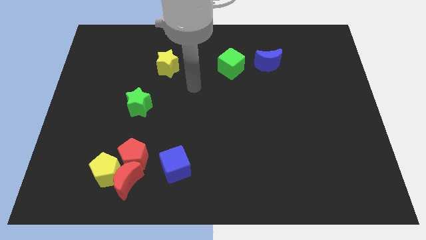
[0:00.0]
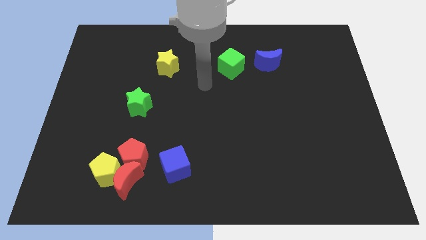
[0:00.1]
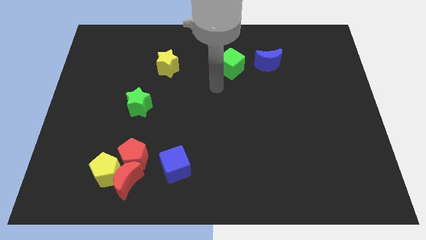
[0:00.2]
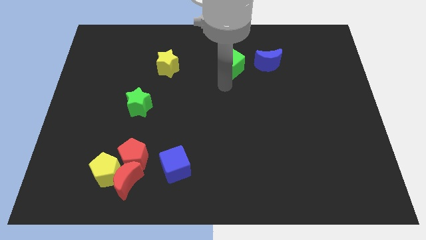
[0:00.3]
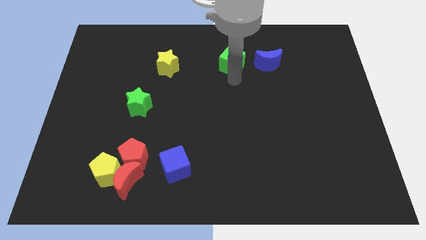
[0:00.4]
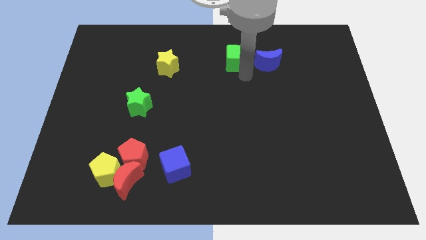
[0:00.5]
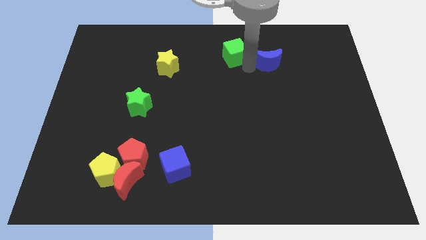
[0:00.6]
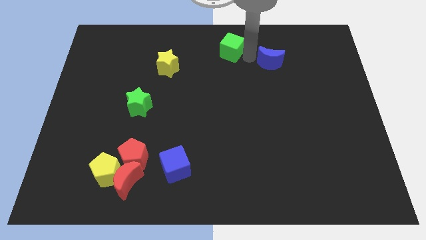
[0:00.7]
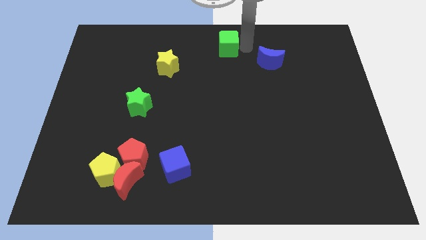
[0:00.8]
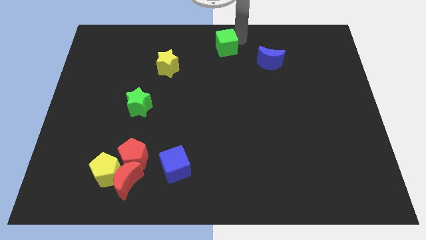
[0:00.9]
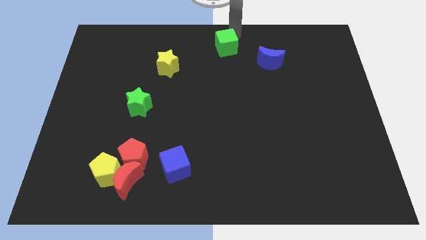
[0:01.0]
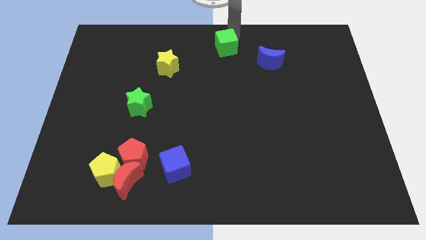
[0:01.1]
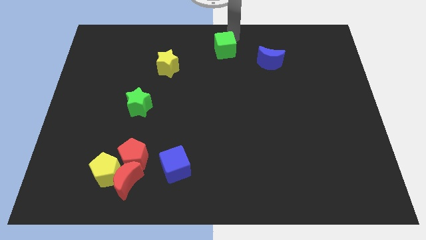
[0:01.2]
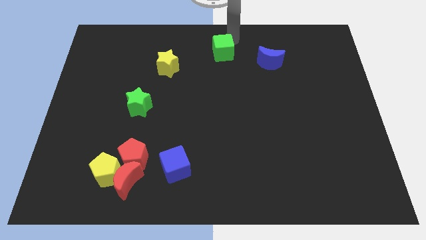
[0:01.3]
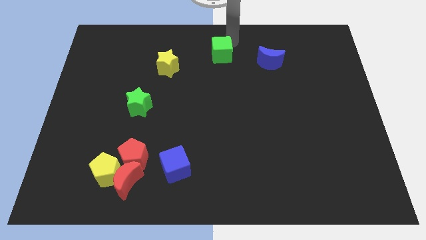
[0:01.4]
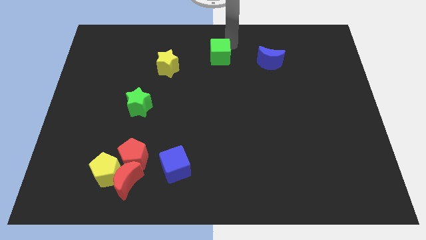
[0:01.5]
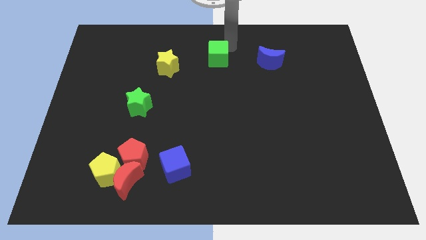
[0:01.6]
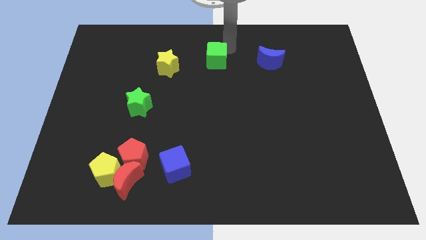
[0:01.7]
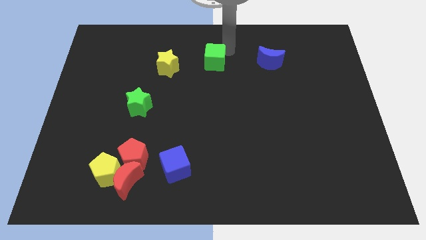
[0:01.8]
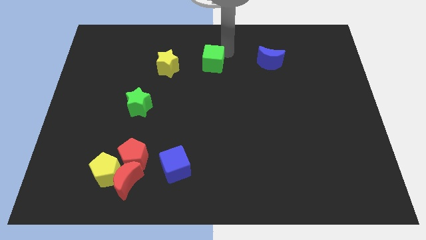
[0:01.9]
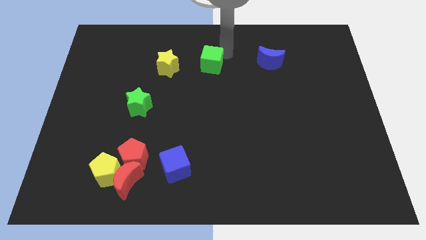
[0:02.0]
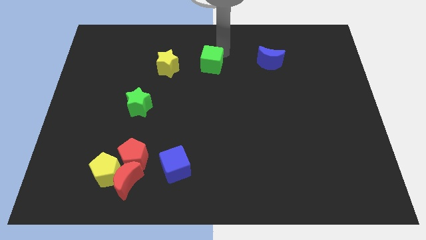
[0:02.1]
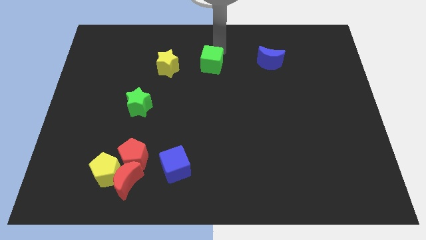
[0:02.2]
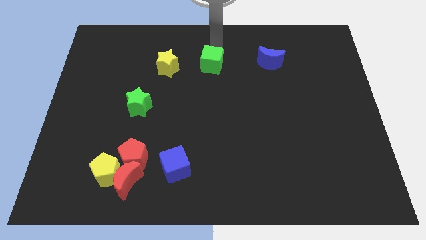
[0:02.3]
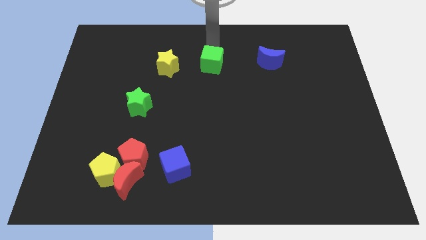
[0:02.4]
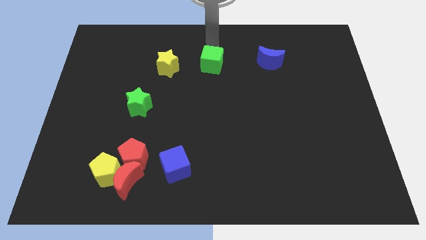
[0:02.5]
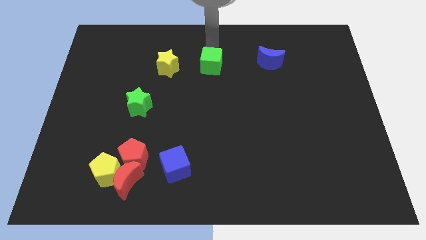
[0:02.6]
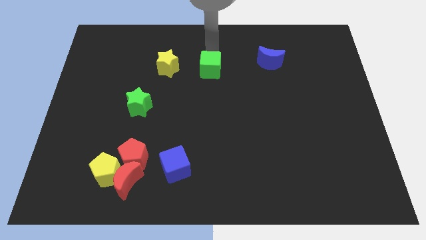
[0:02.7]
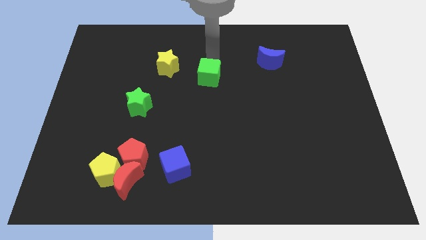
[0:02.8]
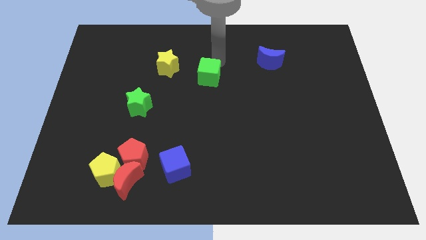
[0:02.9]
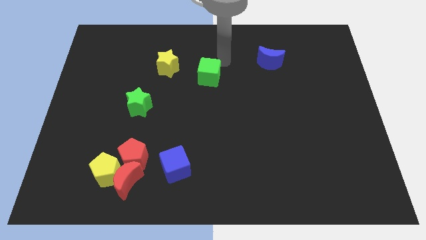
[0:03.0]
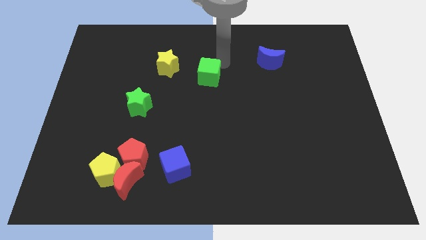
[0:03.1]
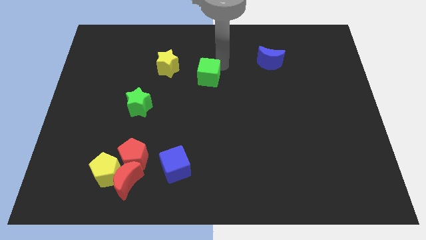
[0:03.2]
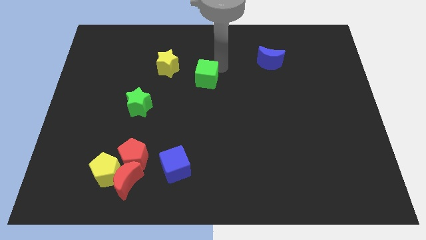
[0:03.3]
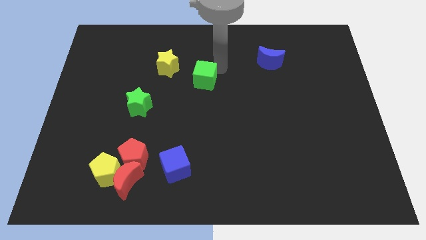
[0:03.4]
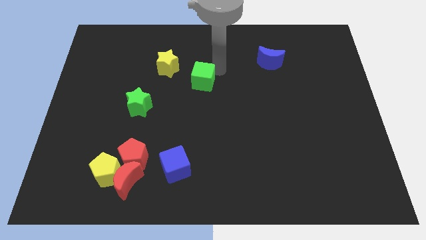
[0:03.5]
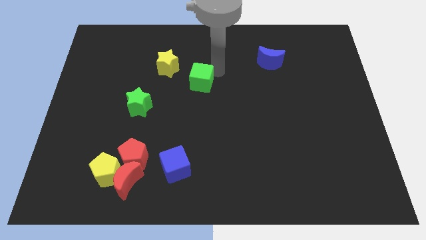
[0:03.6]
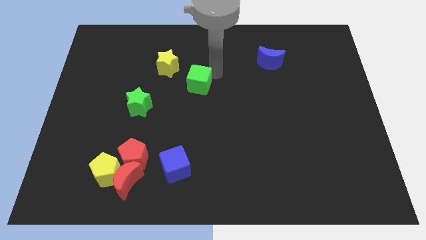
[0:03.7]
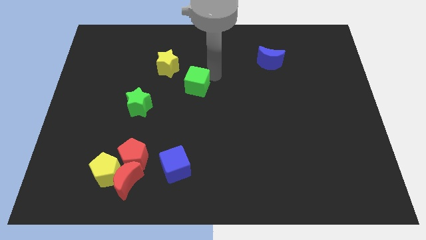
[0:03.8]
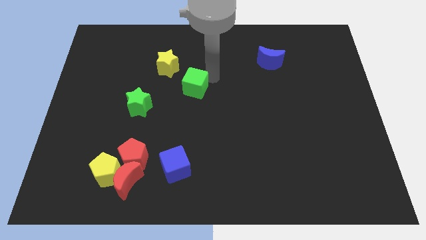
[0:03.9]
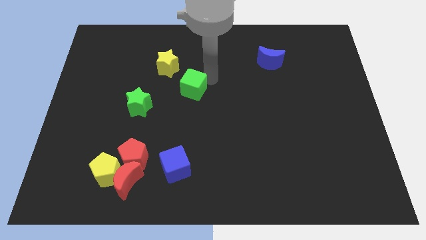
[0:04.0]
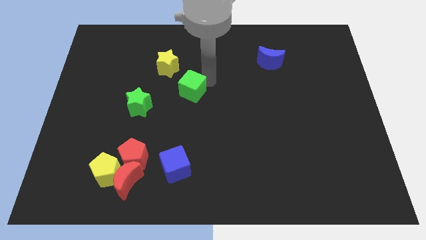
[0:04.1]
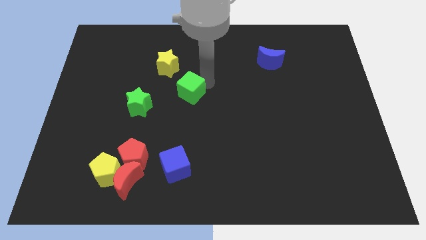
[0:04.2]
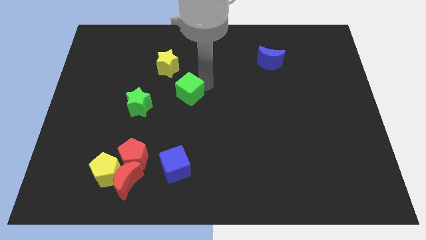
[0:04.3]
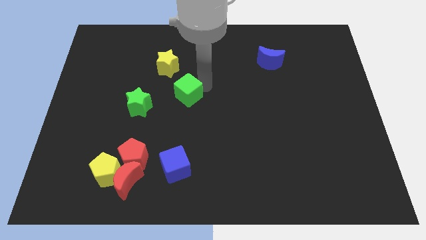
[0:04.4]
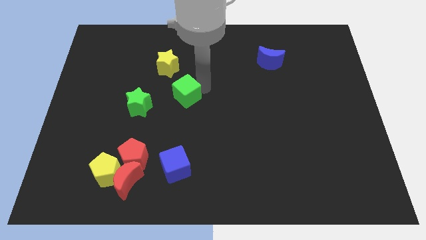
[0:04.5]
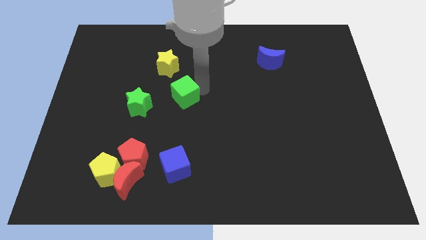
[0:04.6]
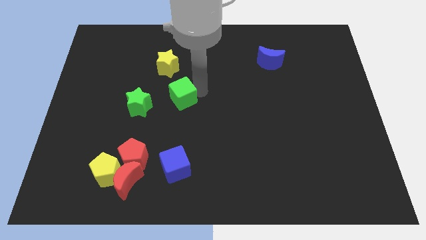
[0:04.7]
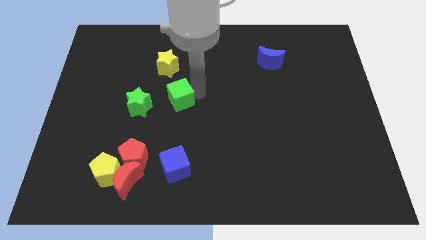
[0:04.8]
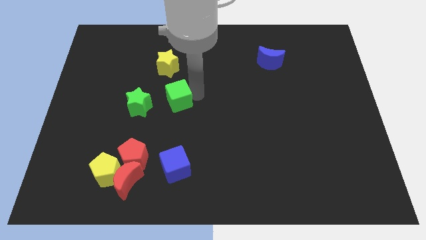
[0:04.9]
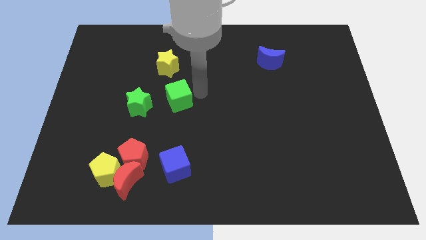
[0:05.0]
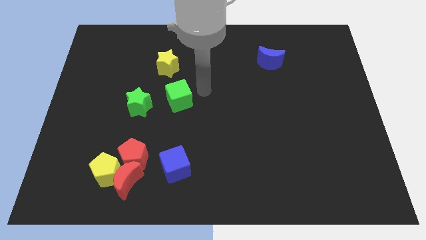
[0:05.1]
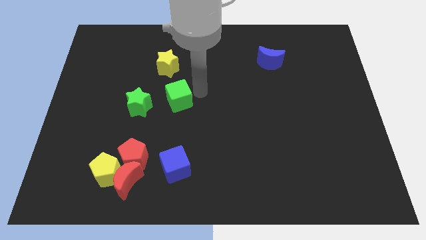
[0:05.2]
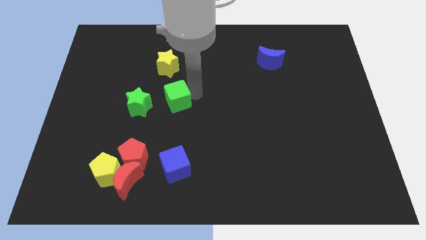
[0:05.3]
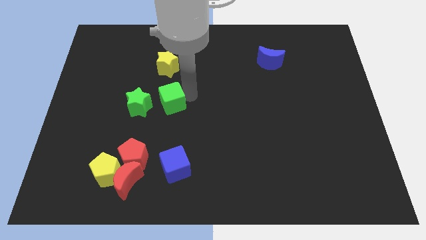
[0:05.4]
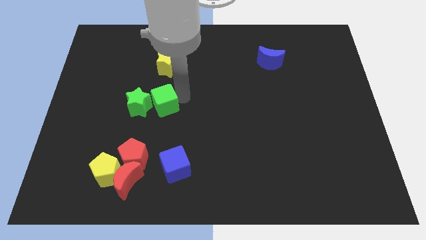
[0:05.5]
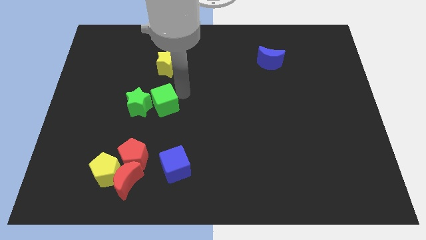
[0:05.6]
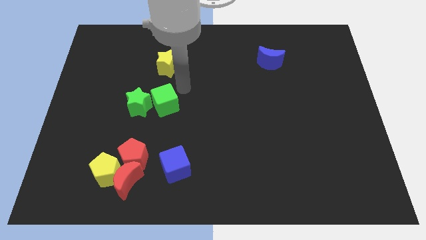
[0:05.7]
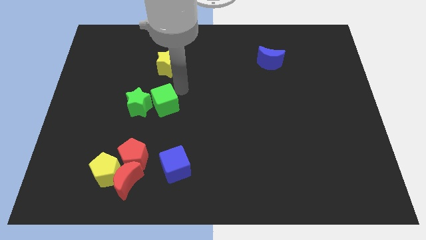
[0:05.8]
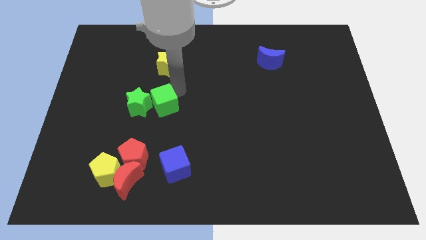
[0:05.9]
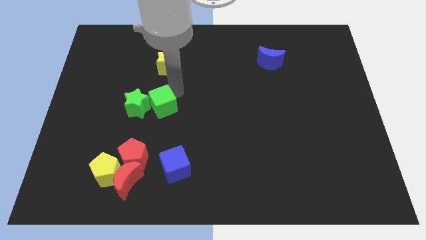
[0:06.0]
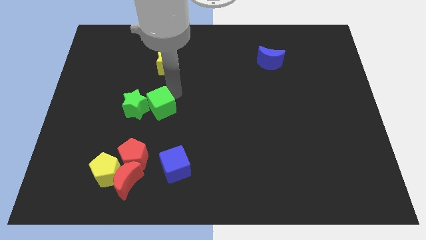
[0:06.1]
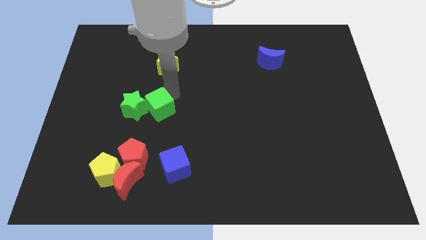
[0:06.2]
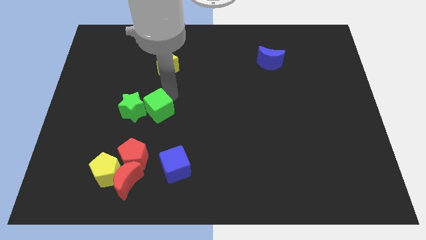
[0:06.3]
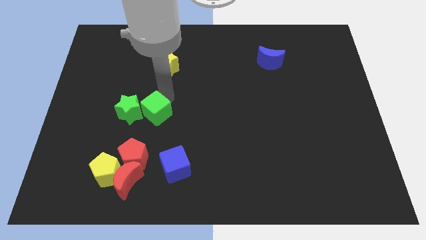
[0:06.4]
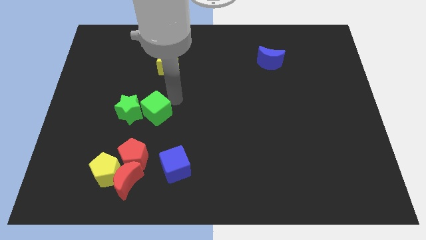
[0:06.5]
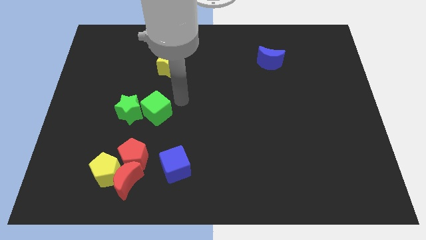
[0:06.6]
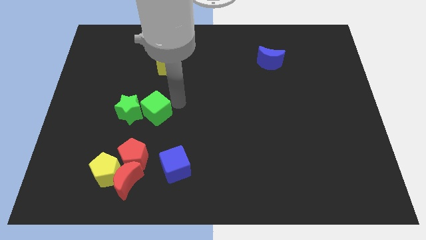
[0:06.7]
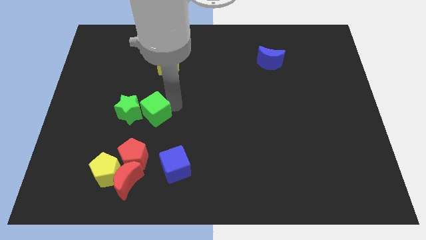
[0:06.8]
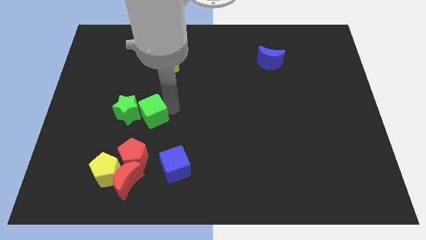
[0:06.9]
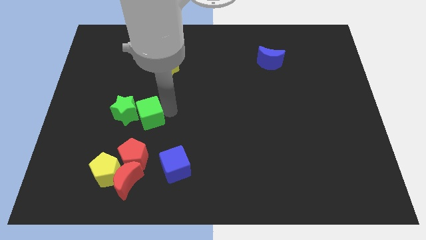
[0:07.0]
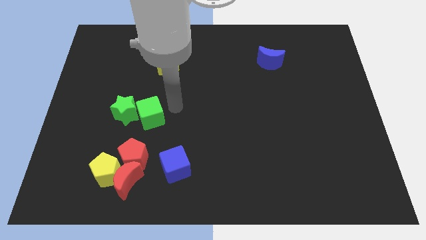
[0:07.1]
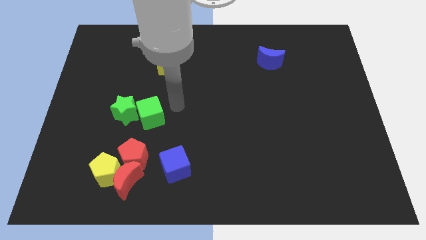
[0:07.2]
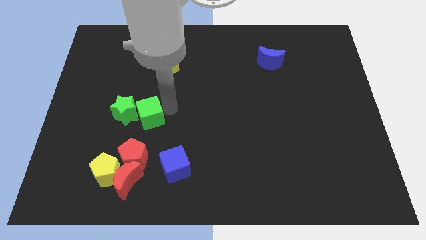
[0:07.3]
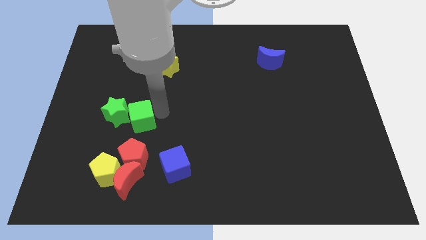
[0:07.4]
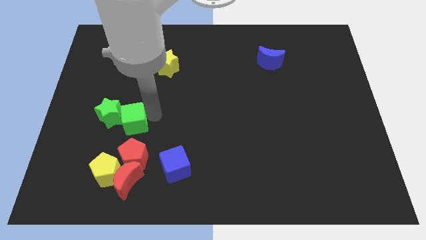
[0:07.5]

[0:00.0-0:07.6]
push the green cube to the top of the yellow pentagon
